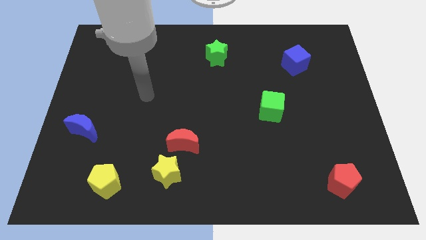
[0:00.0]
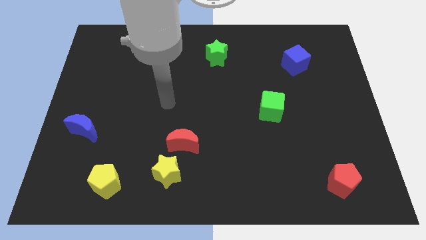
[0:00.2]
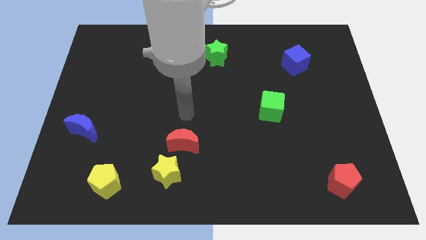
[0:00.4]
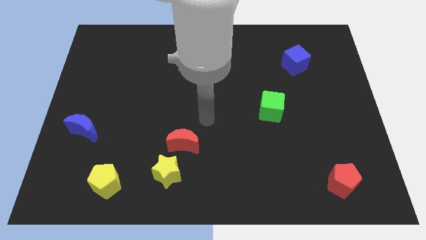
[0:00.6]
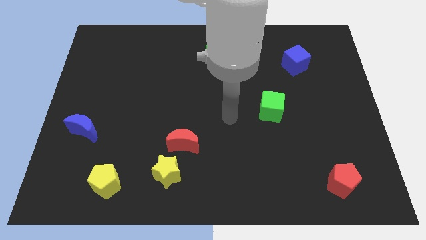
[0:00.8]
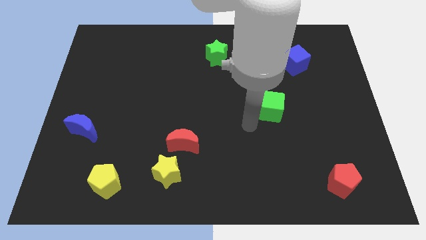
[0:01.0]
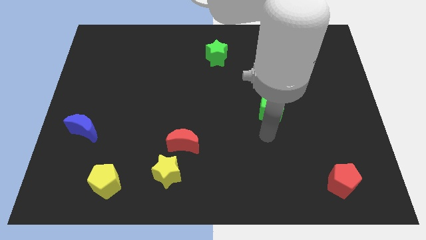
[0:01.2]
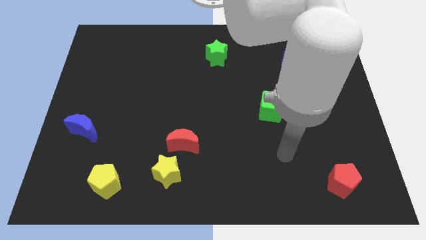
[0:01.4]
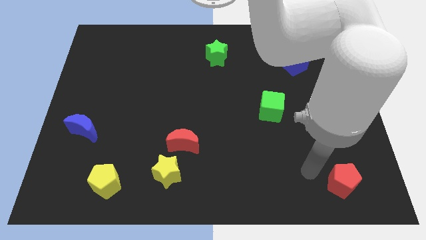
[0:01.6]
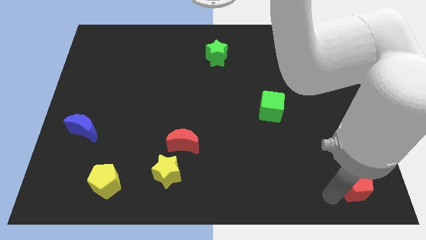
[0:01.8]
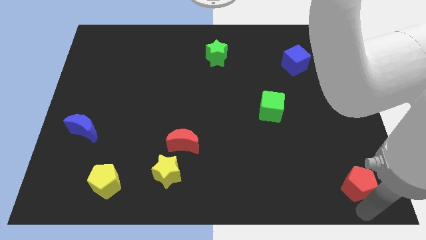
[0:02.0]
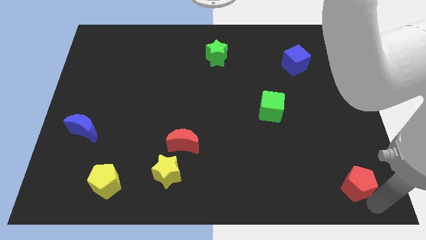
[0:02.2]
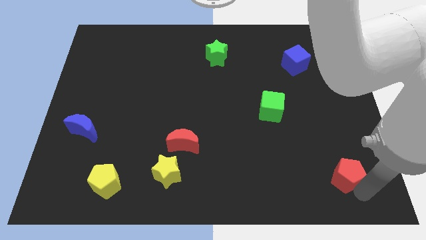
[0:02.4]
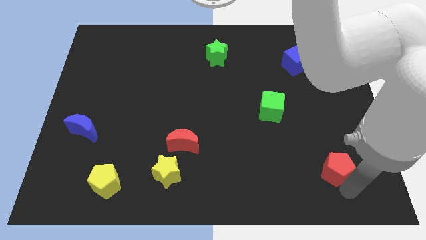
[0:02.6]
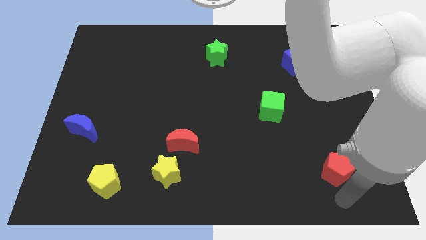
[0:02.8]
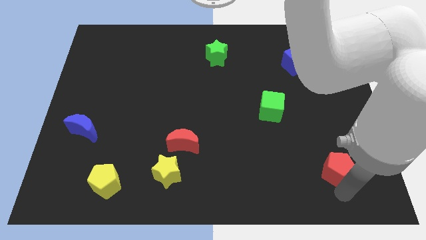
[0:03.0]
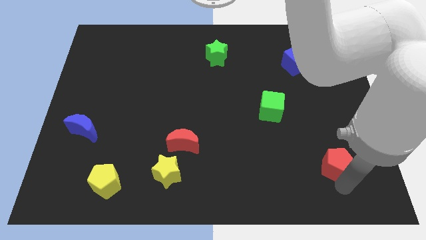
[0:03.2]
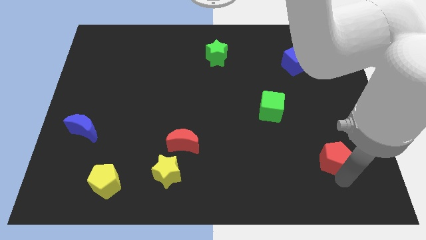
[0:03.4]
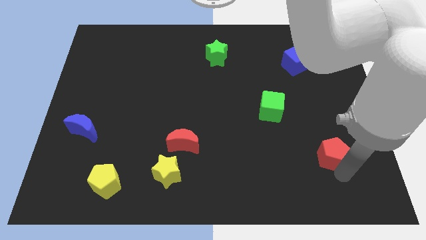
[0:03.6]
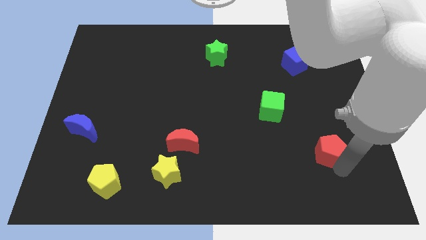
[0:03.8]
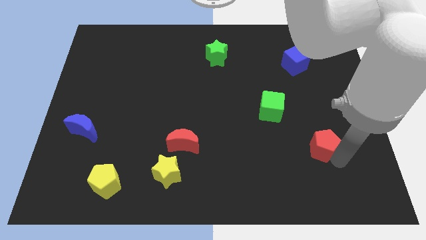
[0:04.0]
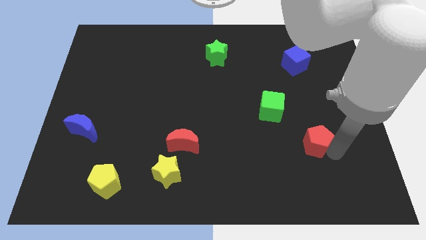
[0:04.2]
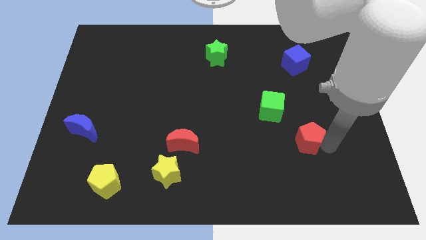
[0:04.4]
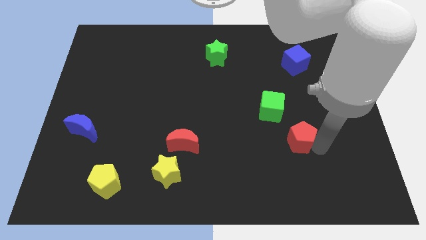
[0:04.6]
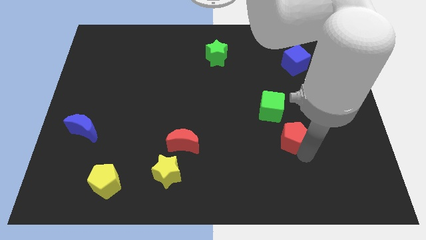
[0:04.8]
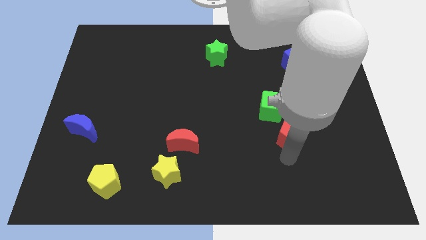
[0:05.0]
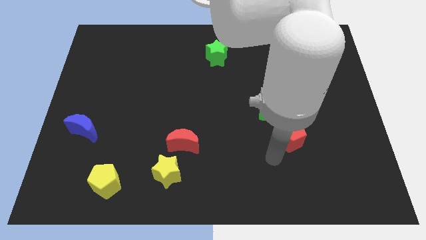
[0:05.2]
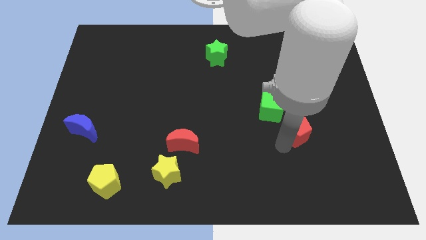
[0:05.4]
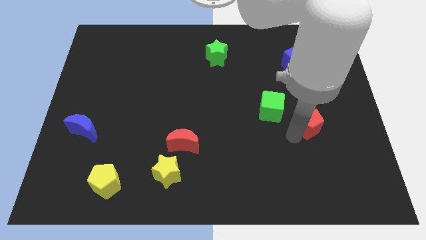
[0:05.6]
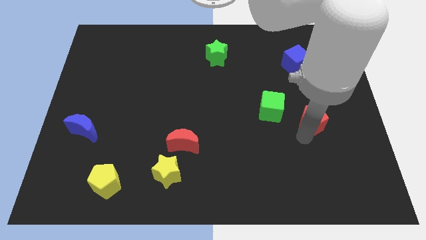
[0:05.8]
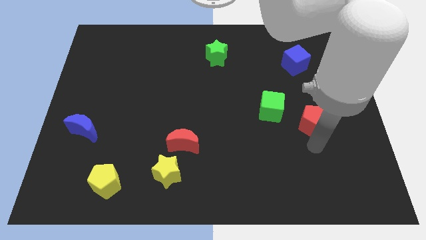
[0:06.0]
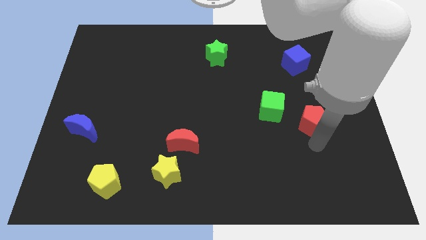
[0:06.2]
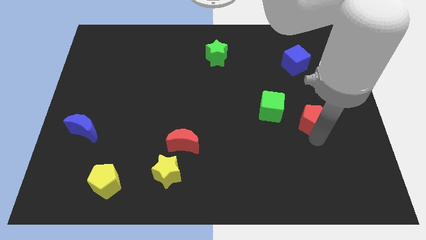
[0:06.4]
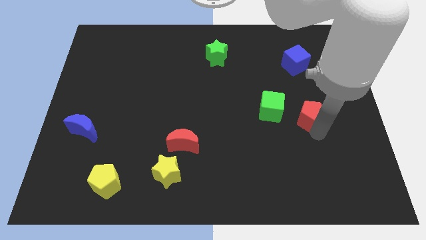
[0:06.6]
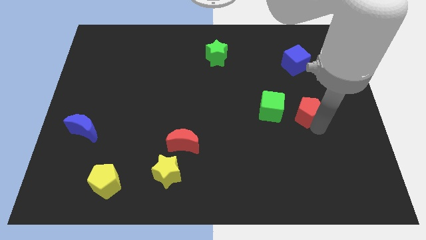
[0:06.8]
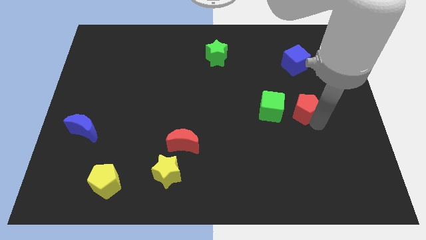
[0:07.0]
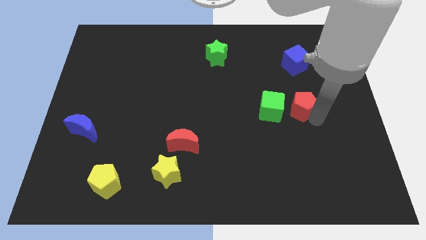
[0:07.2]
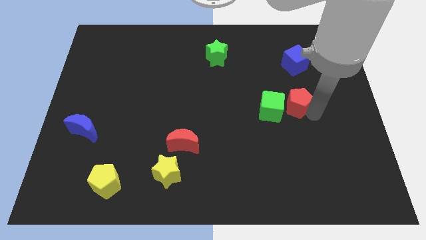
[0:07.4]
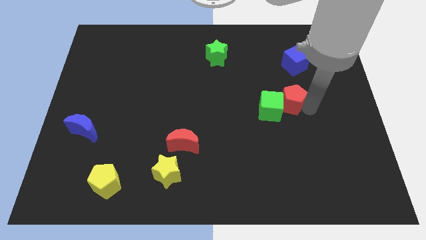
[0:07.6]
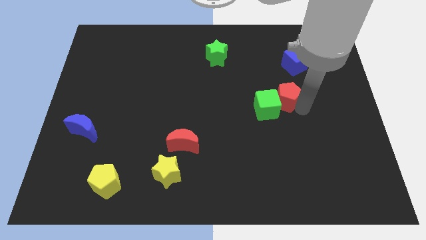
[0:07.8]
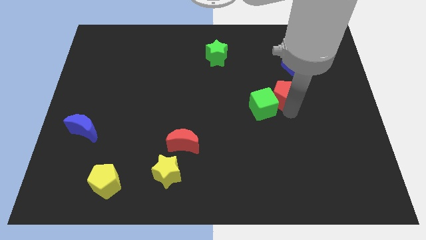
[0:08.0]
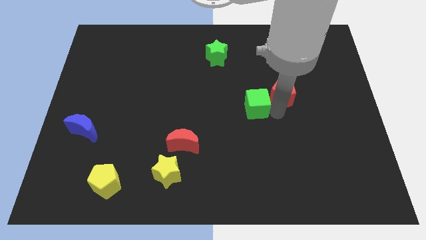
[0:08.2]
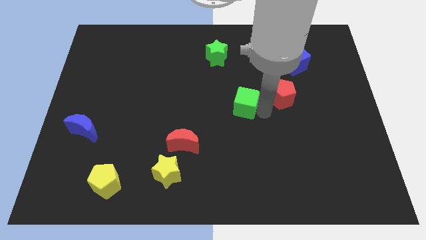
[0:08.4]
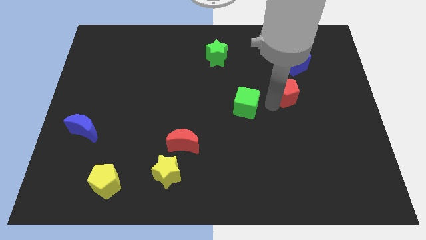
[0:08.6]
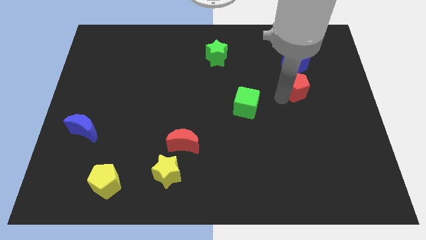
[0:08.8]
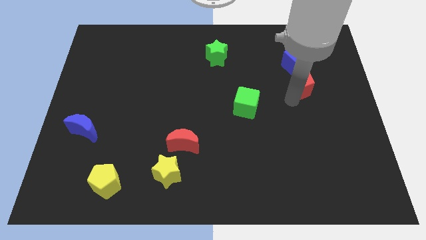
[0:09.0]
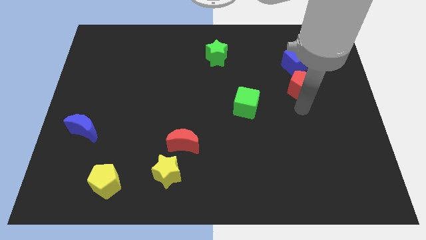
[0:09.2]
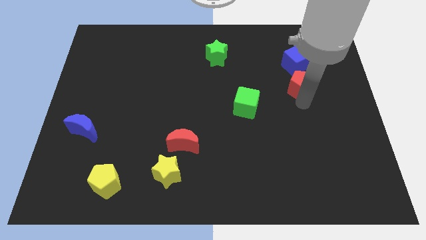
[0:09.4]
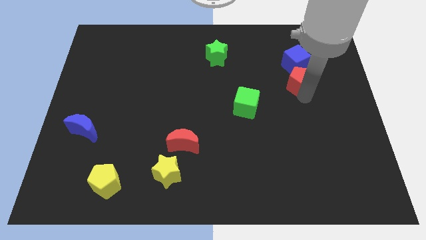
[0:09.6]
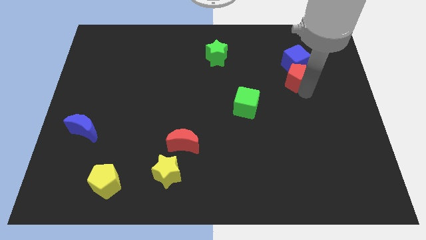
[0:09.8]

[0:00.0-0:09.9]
slide the red pentagon close to the blue cube

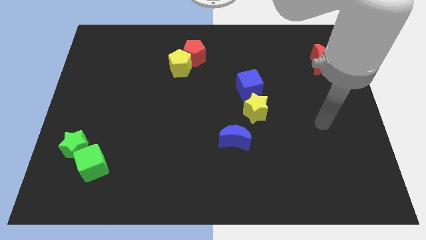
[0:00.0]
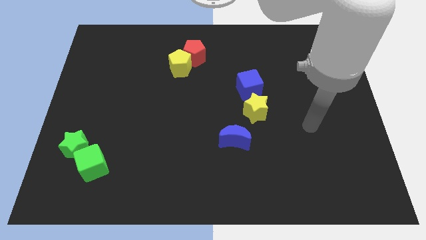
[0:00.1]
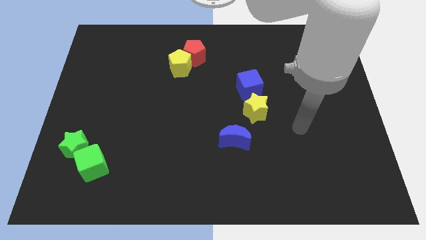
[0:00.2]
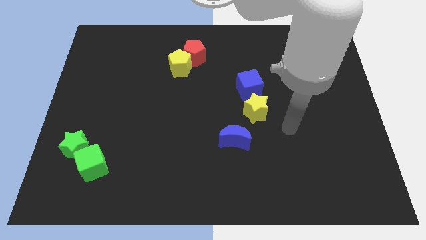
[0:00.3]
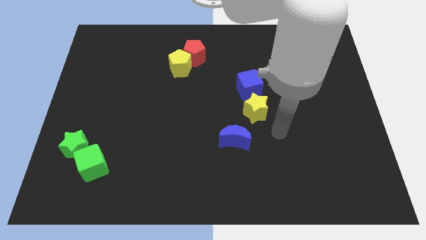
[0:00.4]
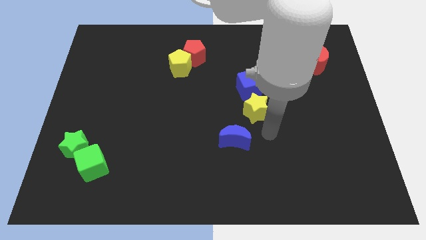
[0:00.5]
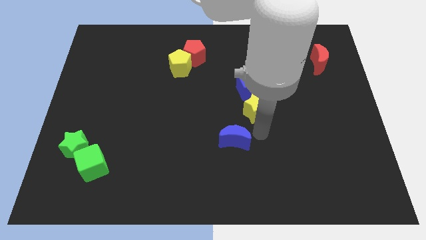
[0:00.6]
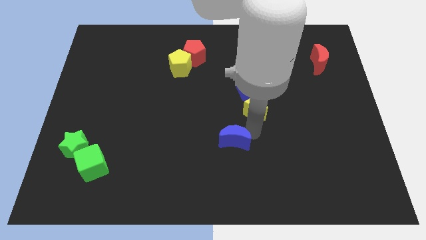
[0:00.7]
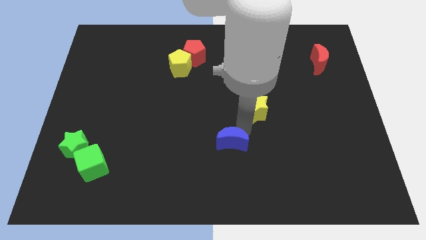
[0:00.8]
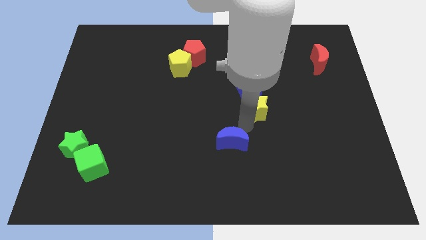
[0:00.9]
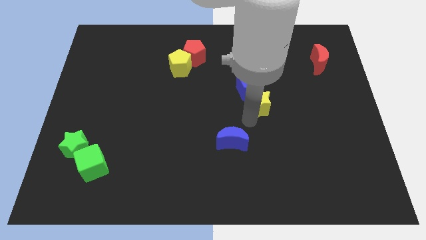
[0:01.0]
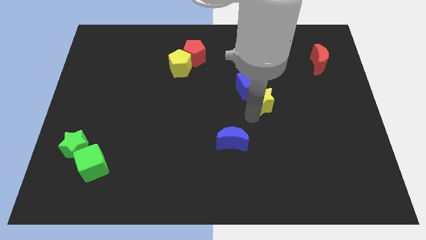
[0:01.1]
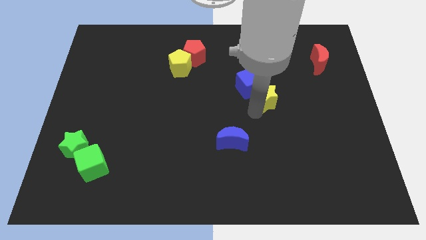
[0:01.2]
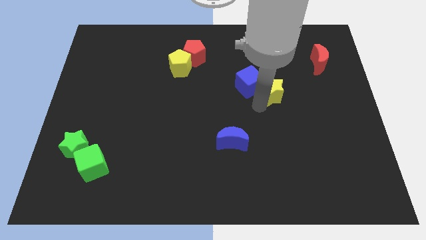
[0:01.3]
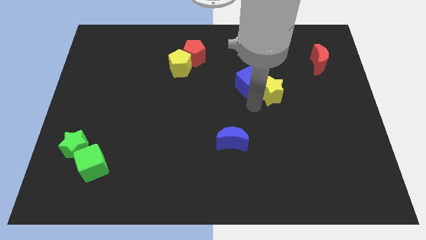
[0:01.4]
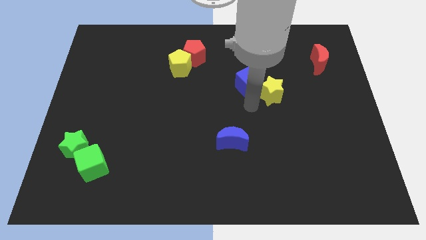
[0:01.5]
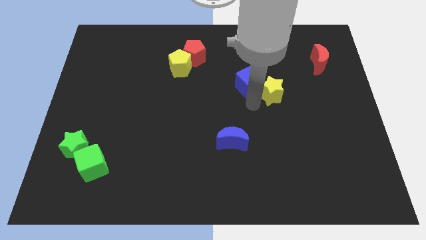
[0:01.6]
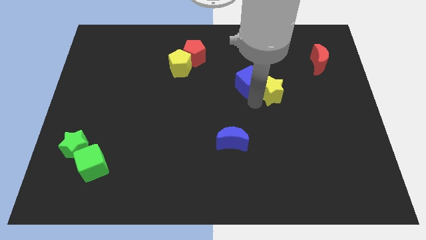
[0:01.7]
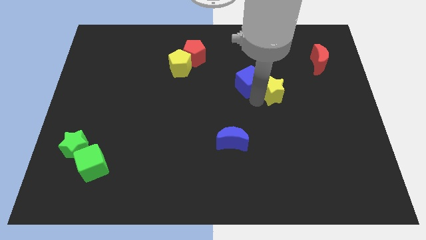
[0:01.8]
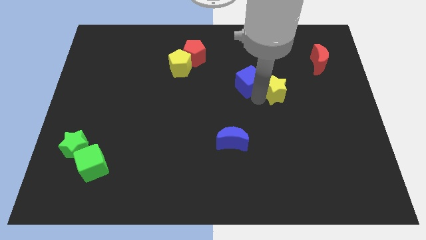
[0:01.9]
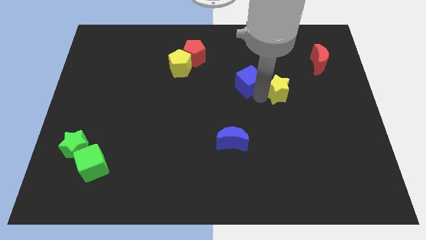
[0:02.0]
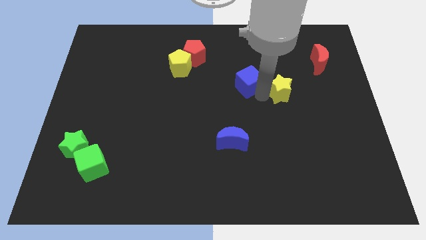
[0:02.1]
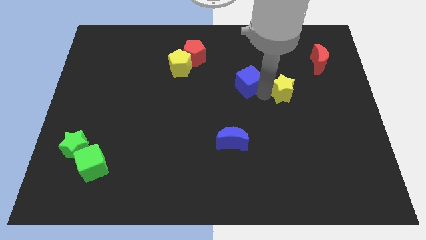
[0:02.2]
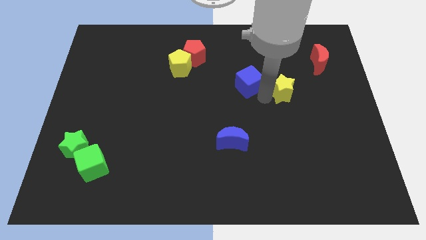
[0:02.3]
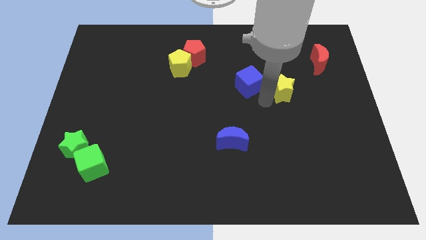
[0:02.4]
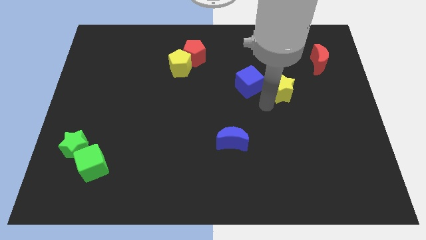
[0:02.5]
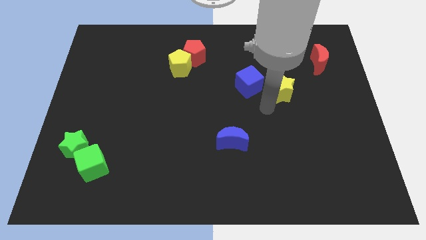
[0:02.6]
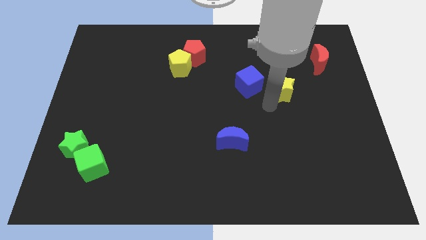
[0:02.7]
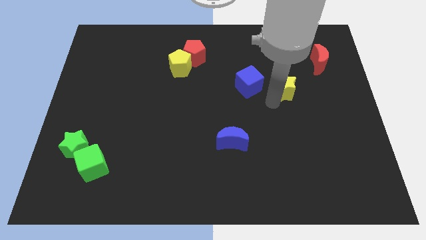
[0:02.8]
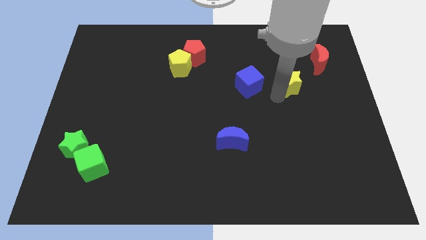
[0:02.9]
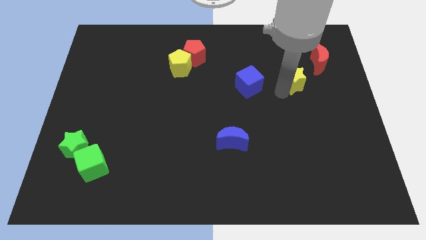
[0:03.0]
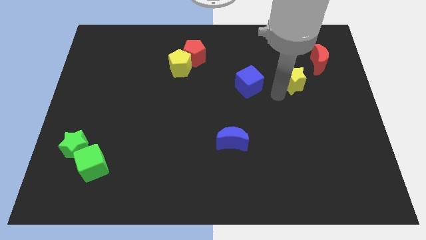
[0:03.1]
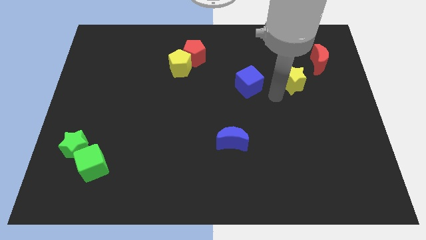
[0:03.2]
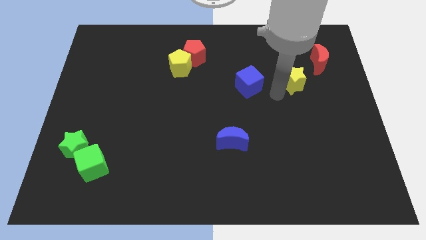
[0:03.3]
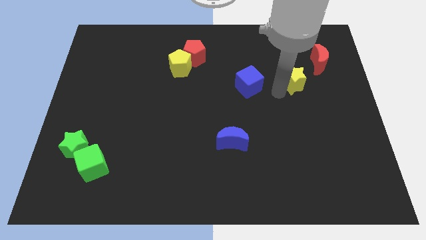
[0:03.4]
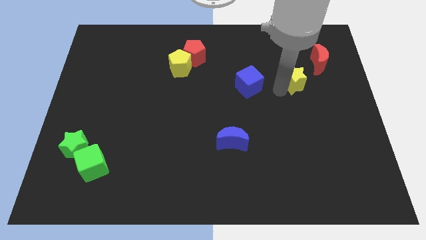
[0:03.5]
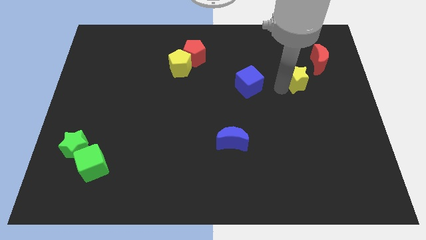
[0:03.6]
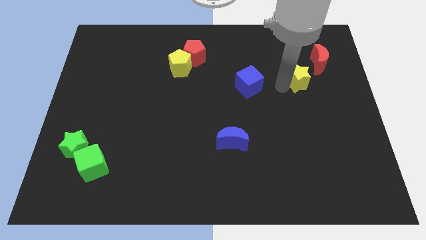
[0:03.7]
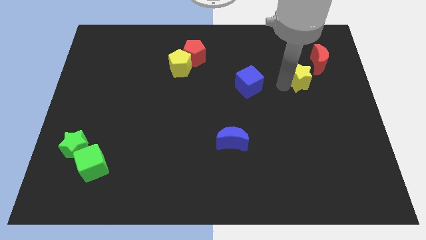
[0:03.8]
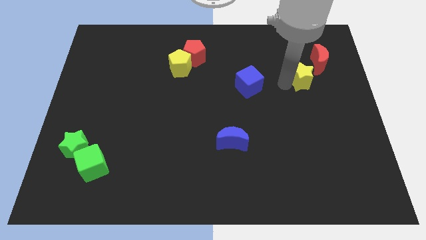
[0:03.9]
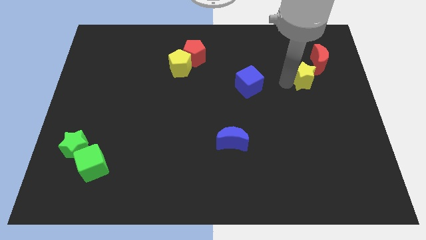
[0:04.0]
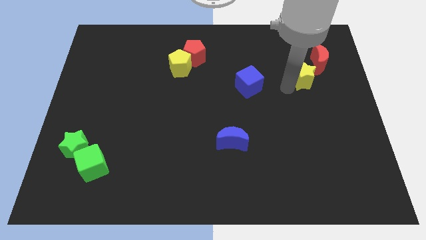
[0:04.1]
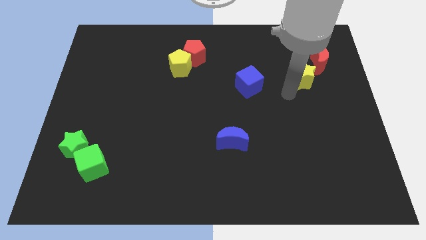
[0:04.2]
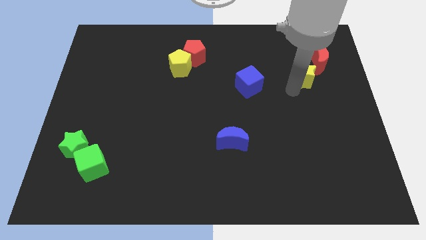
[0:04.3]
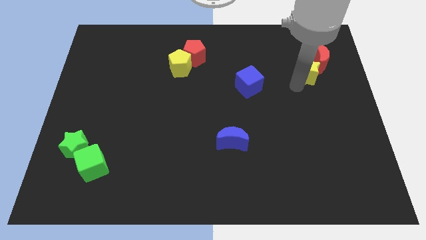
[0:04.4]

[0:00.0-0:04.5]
slide the yellow star next to the red moon
